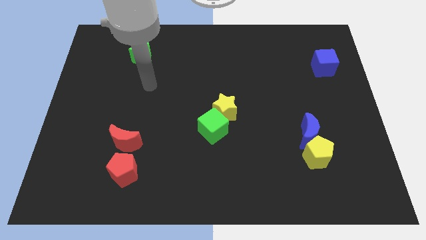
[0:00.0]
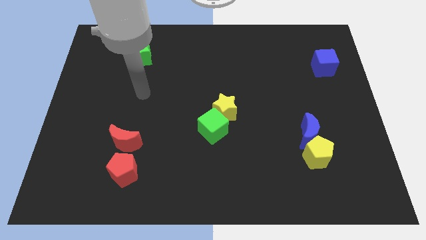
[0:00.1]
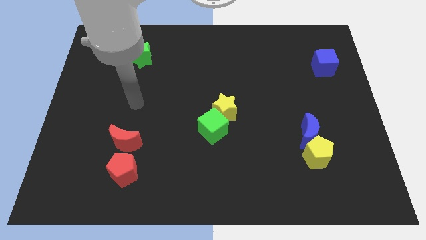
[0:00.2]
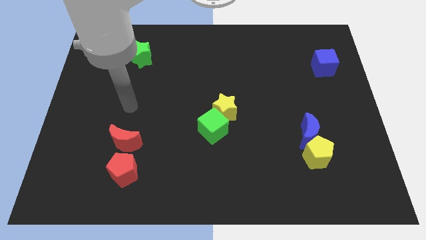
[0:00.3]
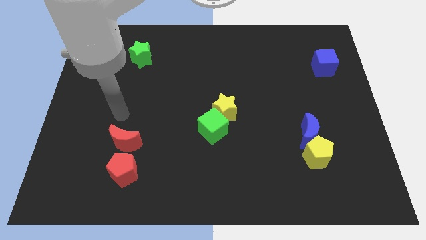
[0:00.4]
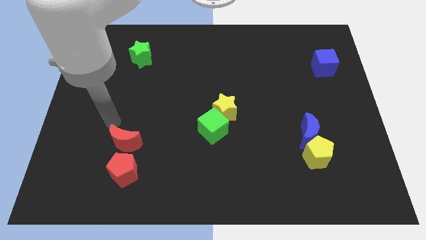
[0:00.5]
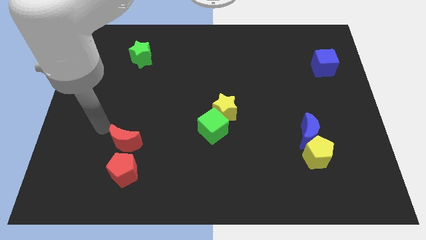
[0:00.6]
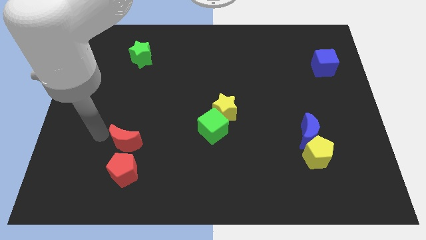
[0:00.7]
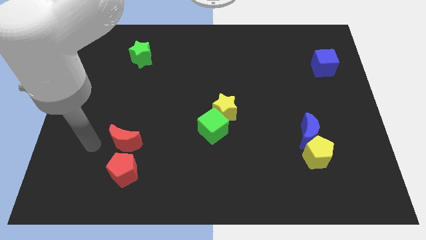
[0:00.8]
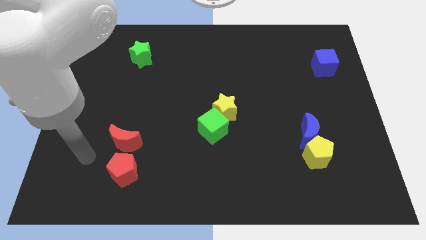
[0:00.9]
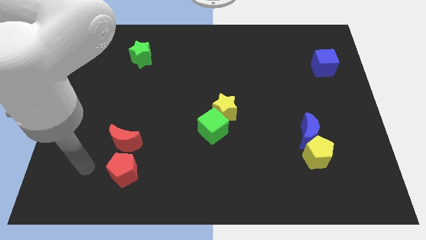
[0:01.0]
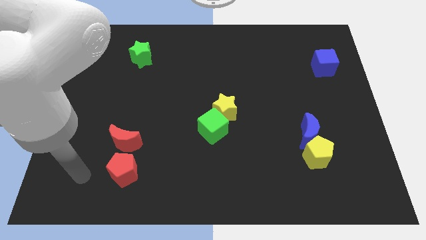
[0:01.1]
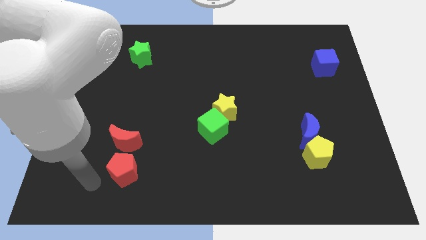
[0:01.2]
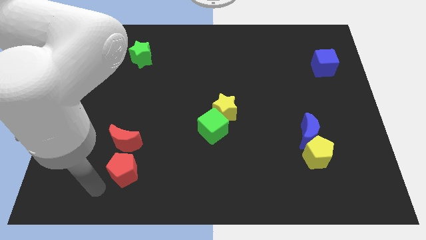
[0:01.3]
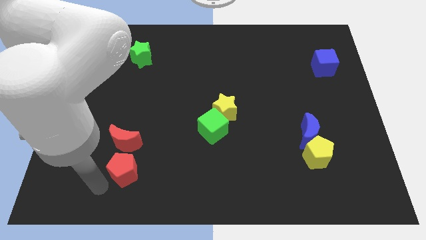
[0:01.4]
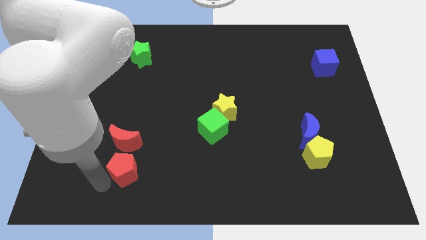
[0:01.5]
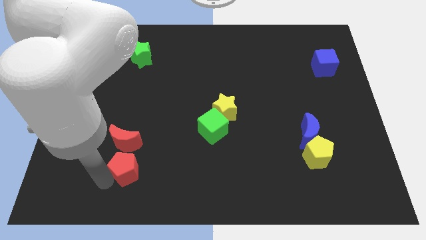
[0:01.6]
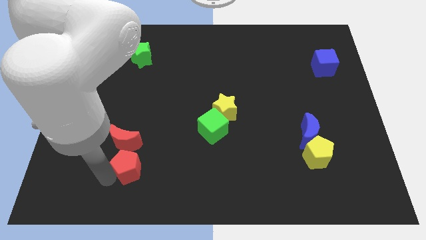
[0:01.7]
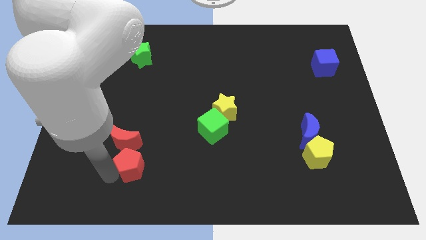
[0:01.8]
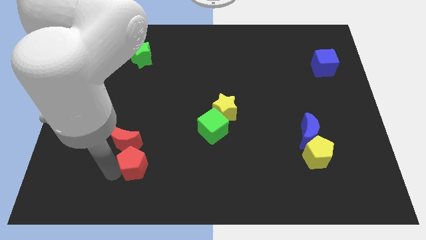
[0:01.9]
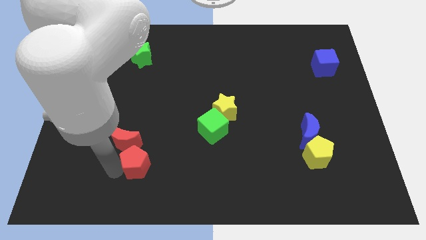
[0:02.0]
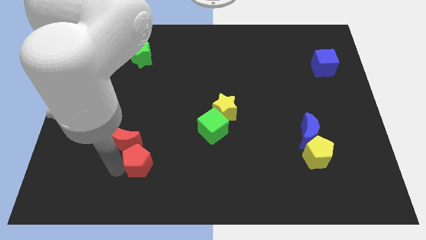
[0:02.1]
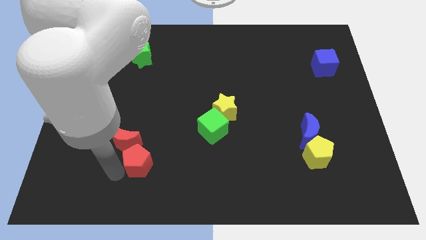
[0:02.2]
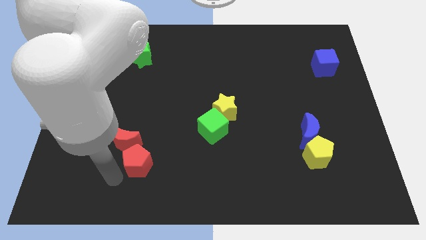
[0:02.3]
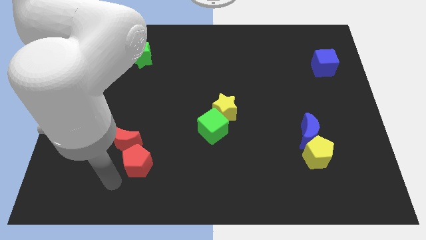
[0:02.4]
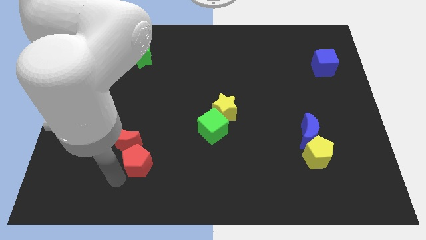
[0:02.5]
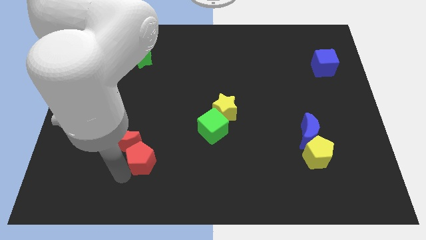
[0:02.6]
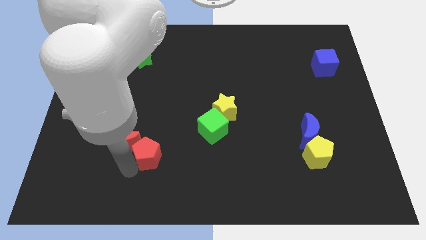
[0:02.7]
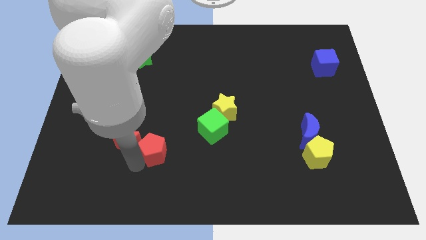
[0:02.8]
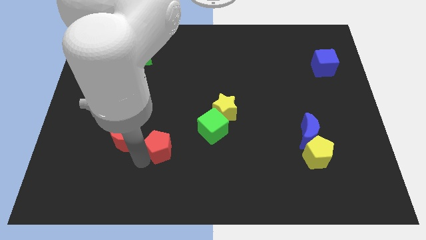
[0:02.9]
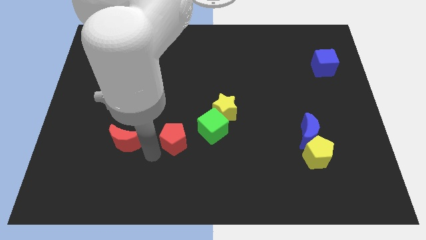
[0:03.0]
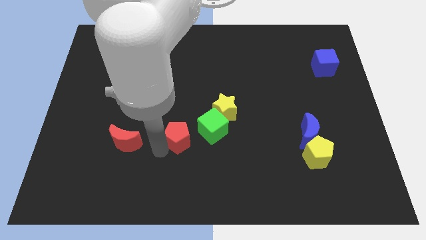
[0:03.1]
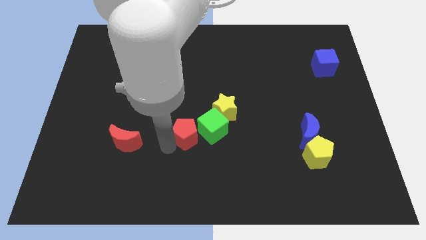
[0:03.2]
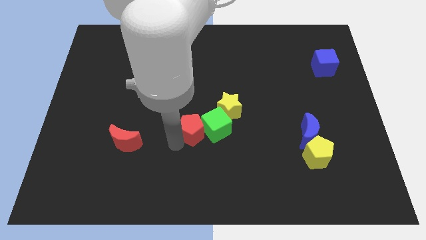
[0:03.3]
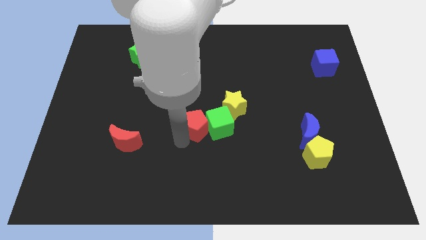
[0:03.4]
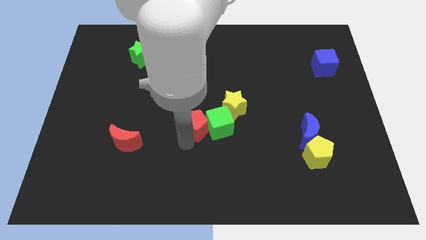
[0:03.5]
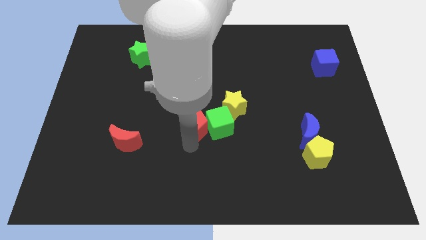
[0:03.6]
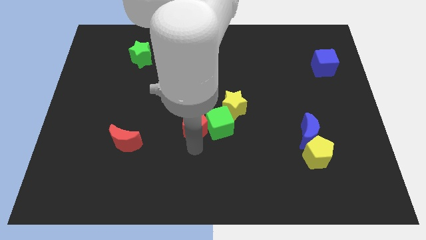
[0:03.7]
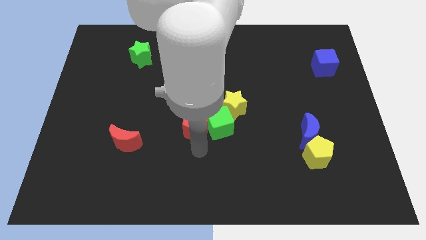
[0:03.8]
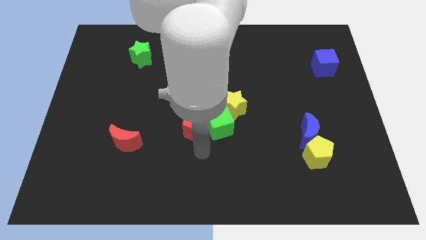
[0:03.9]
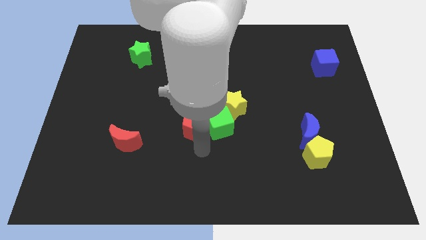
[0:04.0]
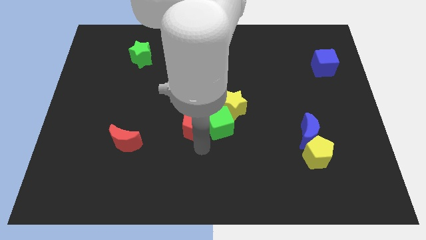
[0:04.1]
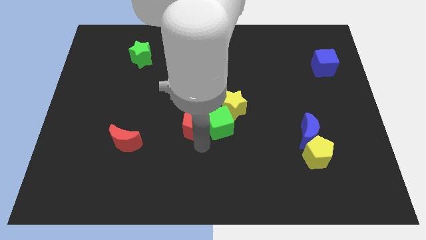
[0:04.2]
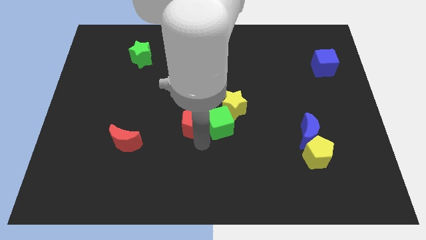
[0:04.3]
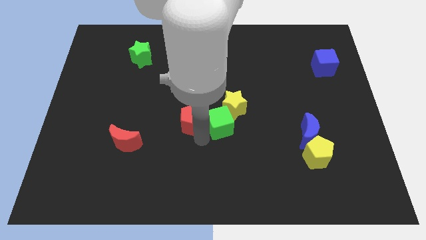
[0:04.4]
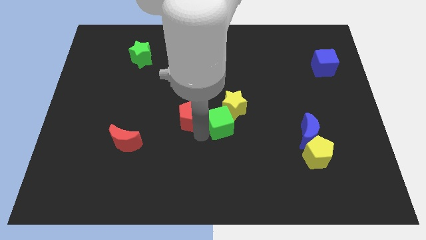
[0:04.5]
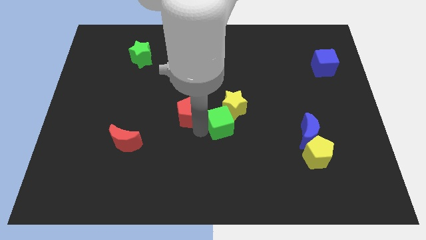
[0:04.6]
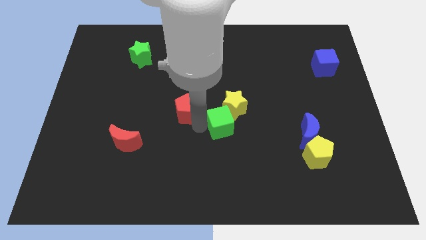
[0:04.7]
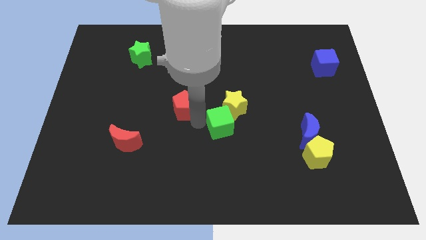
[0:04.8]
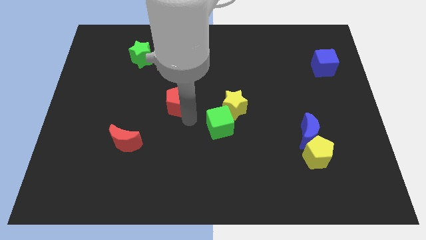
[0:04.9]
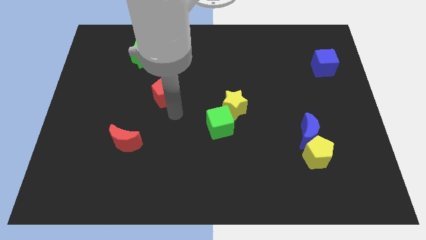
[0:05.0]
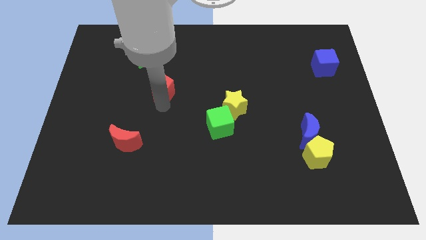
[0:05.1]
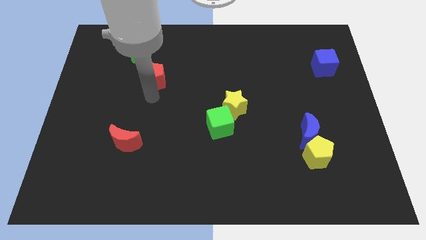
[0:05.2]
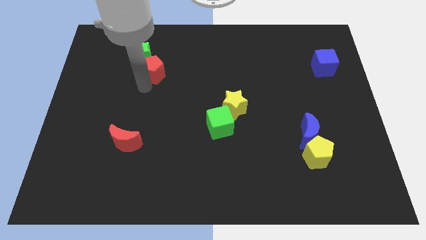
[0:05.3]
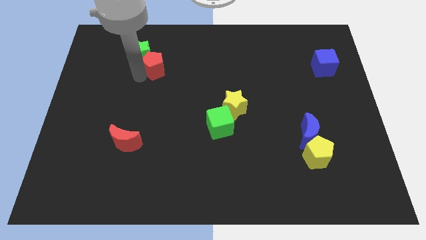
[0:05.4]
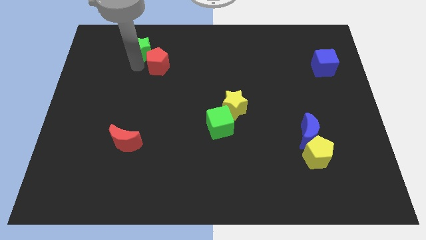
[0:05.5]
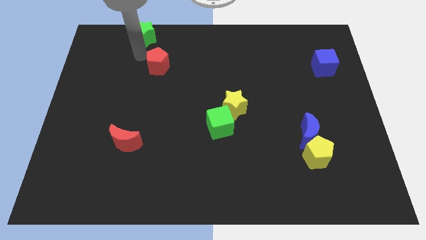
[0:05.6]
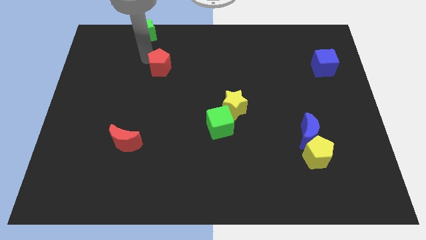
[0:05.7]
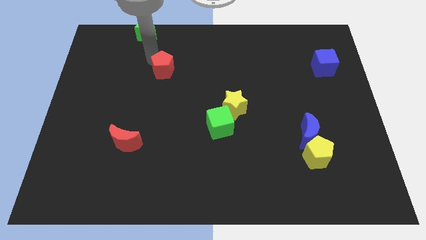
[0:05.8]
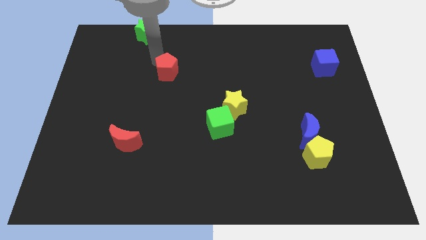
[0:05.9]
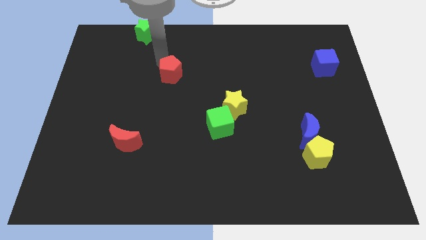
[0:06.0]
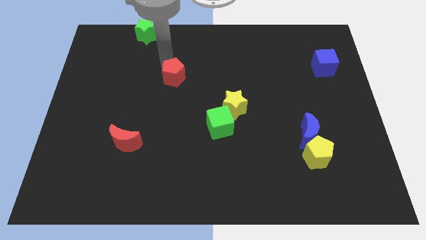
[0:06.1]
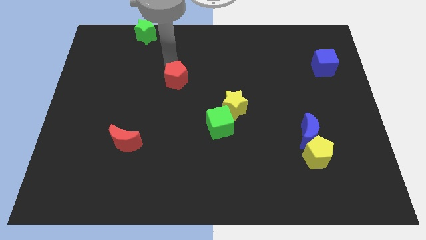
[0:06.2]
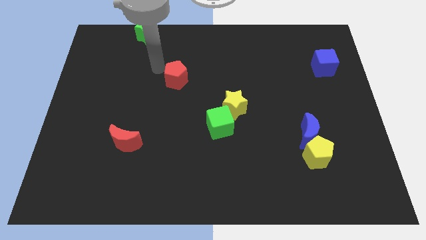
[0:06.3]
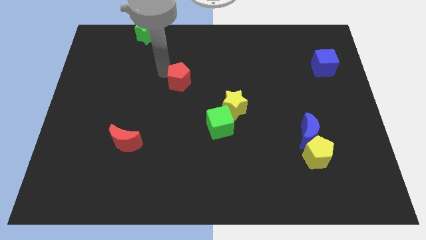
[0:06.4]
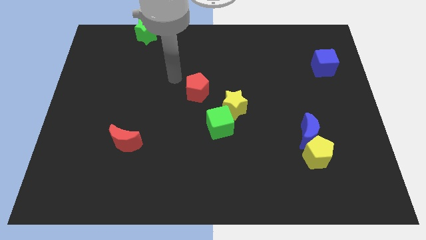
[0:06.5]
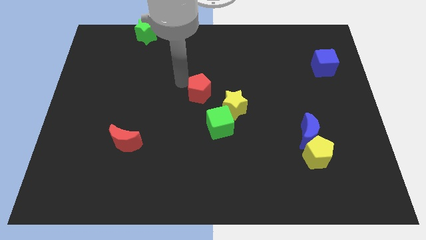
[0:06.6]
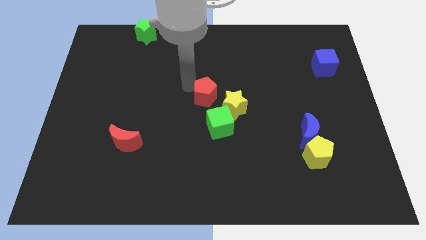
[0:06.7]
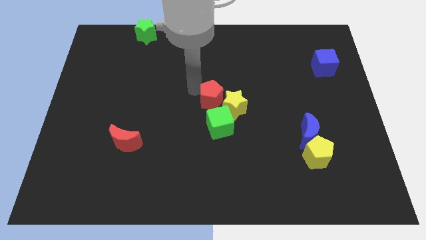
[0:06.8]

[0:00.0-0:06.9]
move the red pentagon towards the yellow star

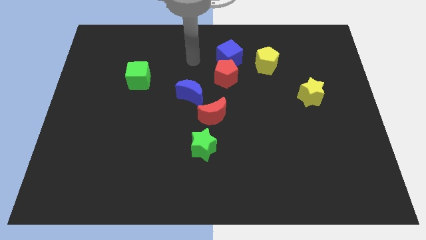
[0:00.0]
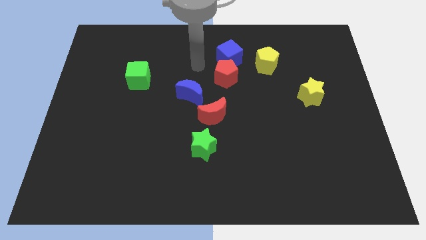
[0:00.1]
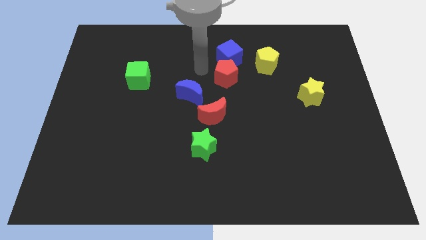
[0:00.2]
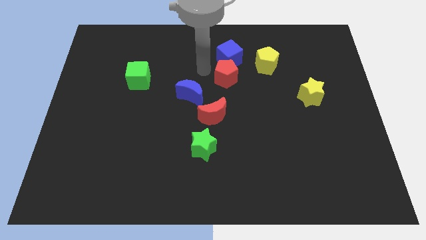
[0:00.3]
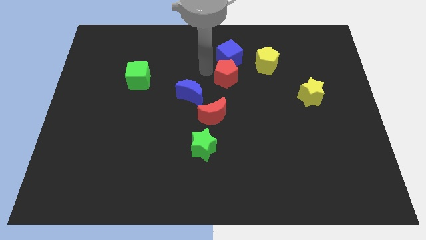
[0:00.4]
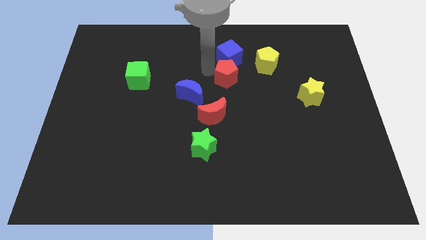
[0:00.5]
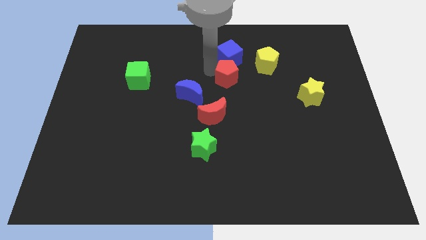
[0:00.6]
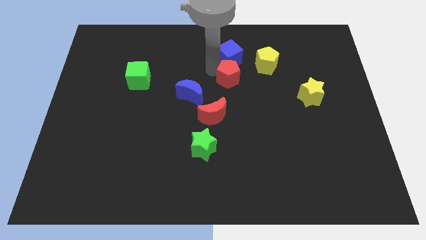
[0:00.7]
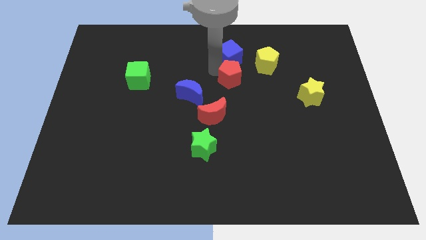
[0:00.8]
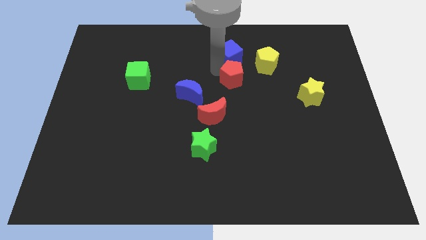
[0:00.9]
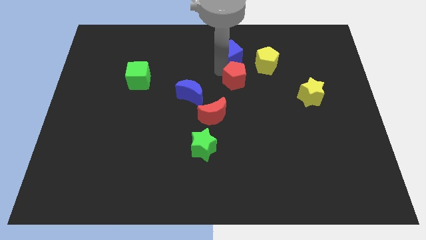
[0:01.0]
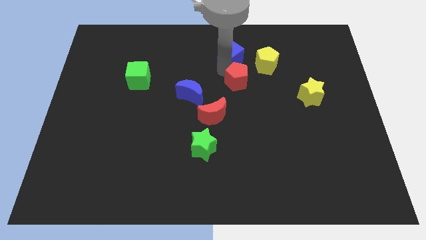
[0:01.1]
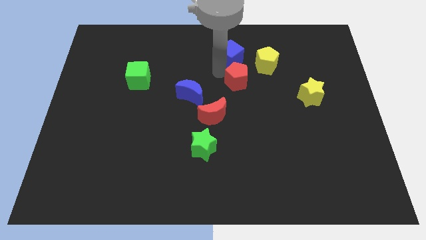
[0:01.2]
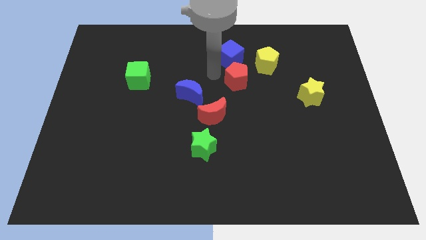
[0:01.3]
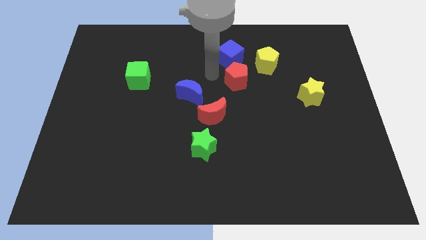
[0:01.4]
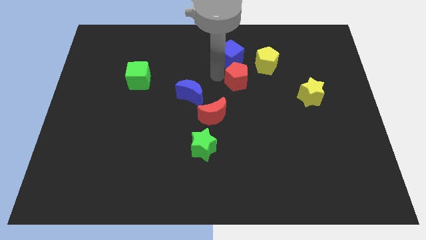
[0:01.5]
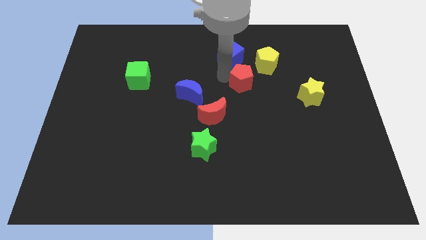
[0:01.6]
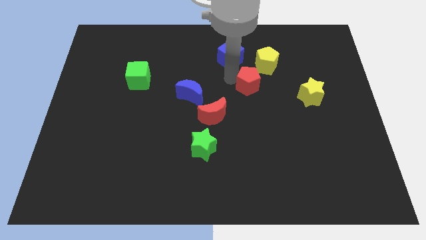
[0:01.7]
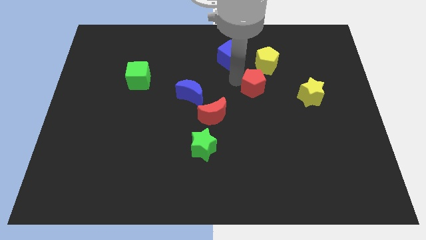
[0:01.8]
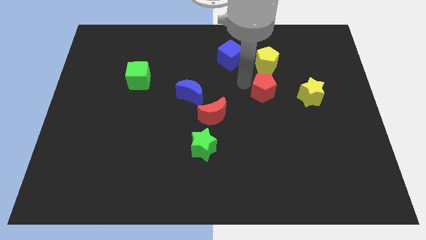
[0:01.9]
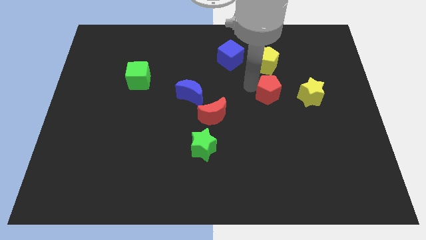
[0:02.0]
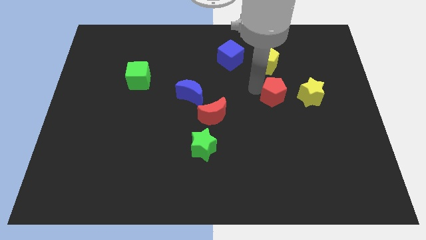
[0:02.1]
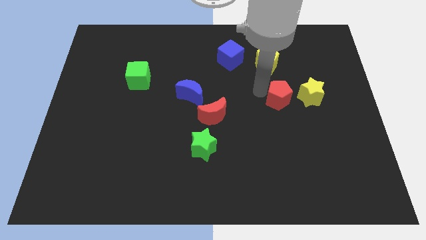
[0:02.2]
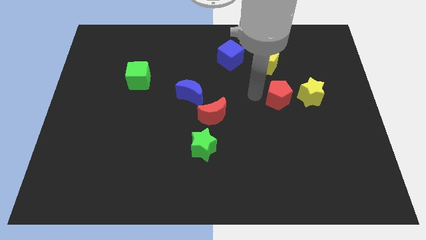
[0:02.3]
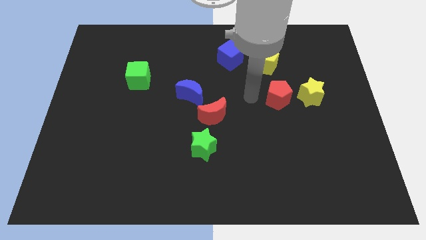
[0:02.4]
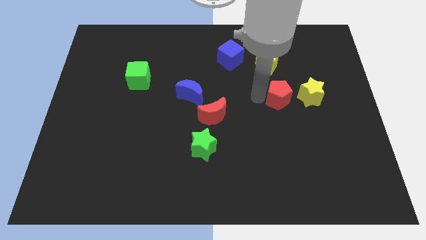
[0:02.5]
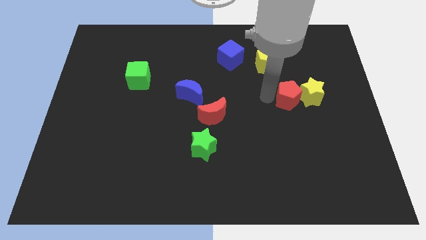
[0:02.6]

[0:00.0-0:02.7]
put the red pentagon towards the yellow star
